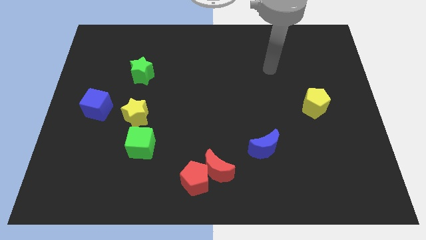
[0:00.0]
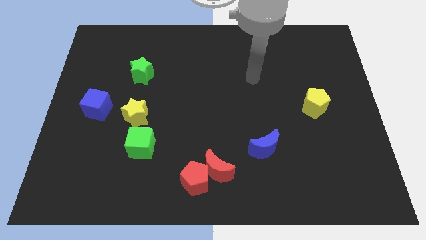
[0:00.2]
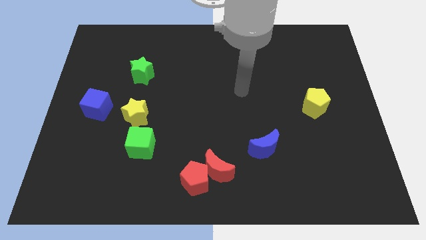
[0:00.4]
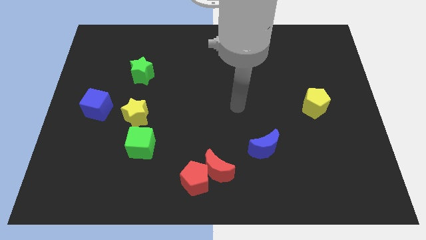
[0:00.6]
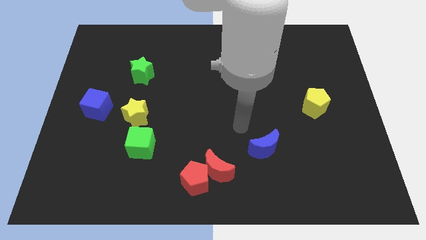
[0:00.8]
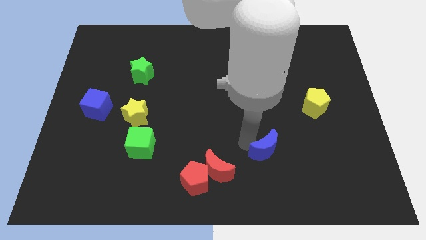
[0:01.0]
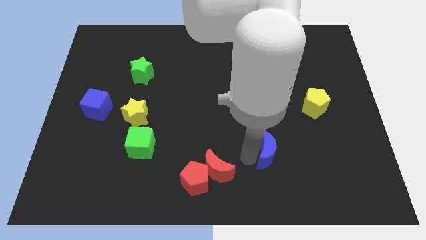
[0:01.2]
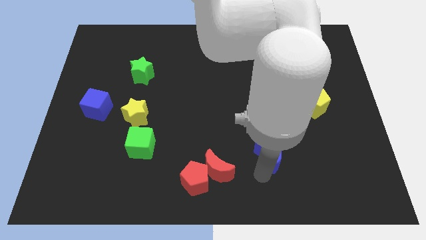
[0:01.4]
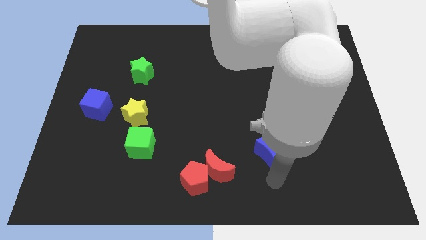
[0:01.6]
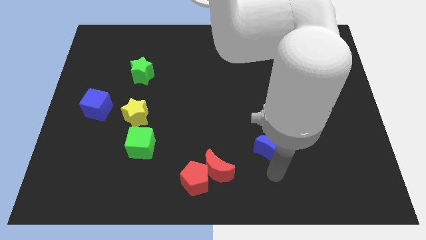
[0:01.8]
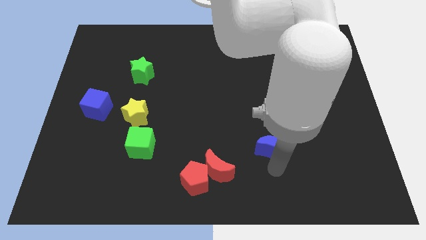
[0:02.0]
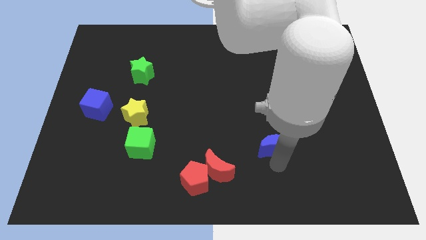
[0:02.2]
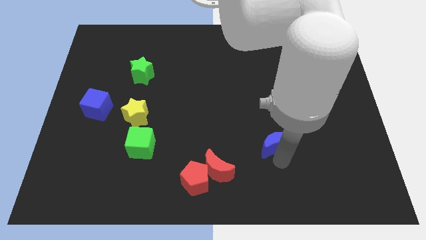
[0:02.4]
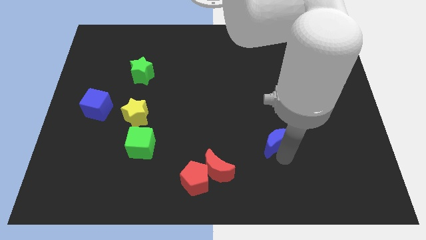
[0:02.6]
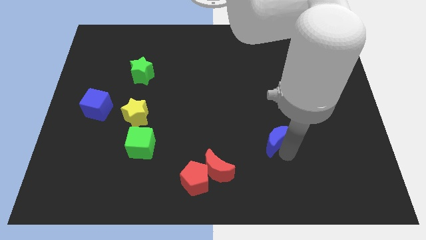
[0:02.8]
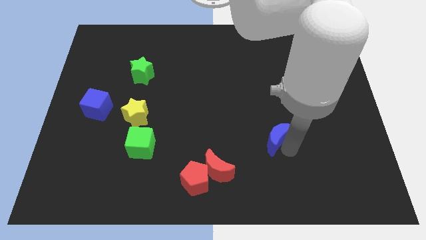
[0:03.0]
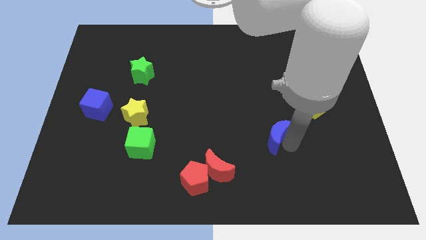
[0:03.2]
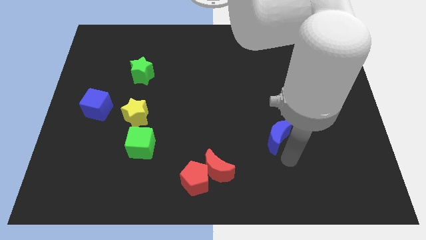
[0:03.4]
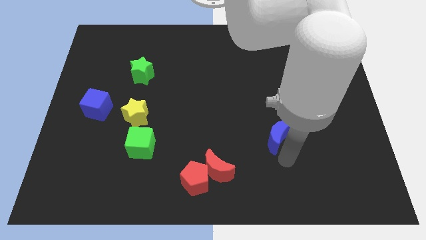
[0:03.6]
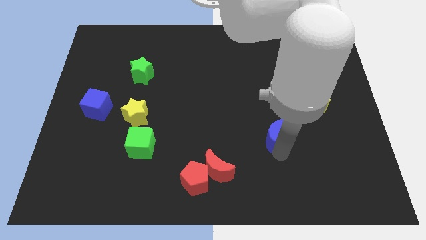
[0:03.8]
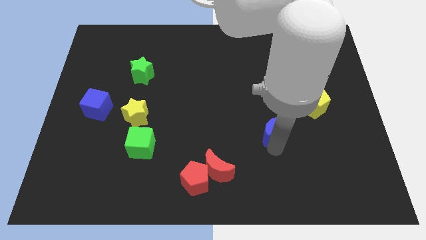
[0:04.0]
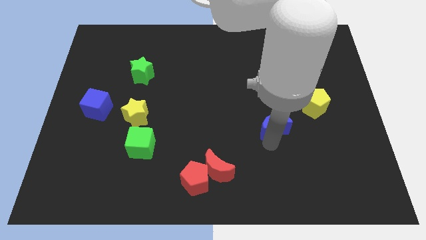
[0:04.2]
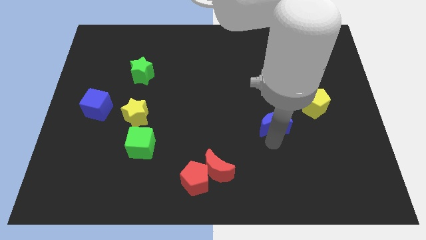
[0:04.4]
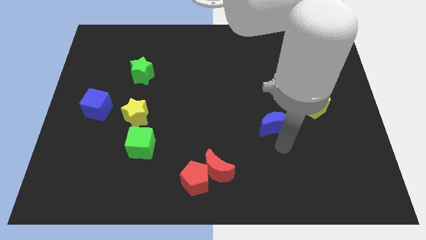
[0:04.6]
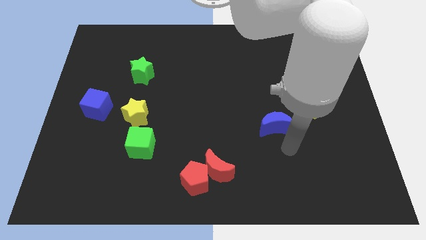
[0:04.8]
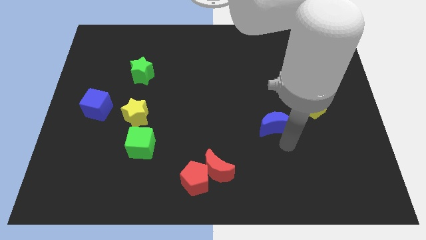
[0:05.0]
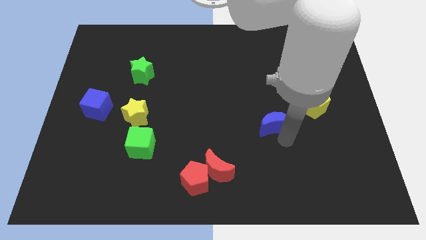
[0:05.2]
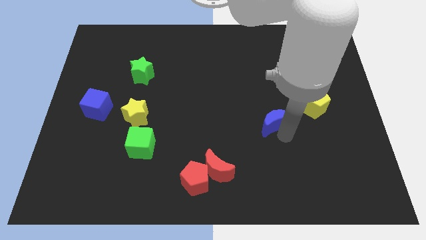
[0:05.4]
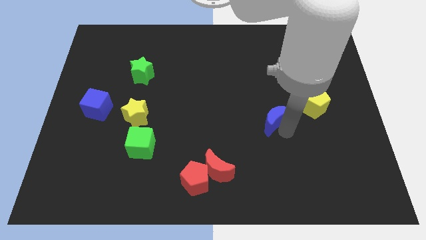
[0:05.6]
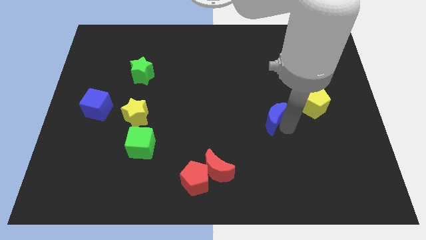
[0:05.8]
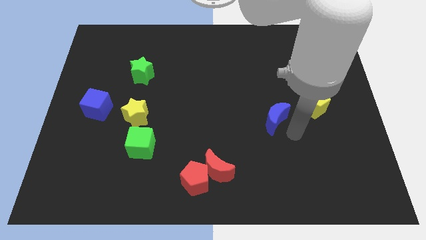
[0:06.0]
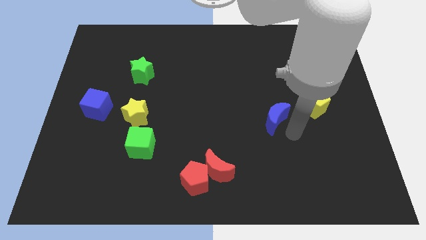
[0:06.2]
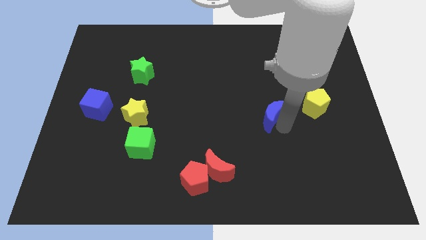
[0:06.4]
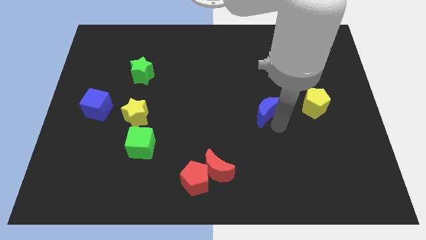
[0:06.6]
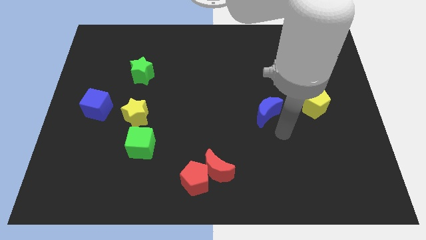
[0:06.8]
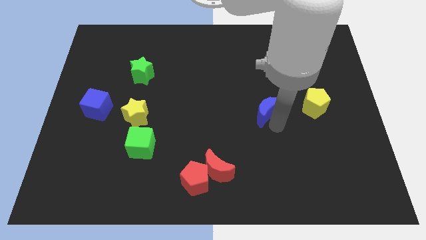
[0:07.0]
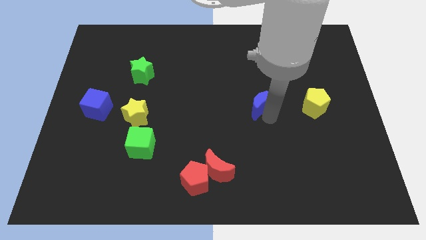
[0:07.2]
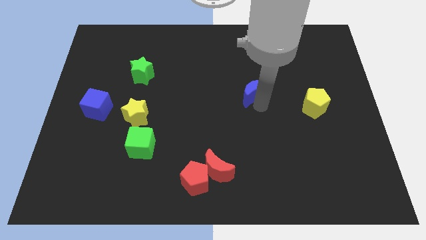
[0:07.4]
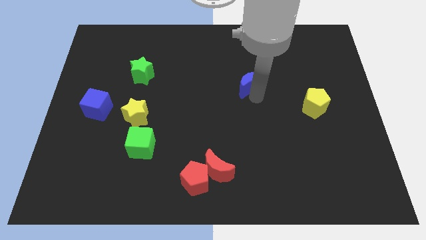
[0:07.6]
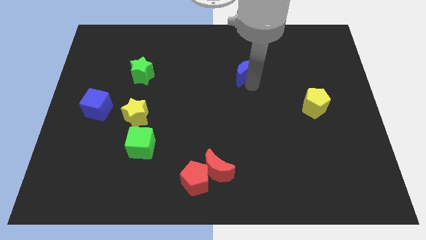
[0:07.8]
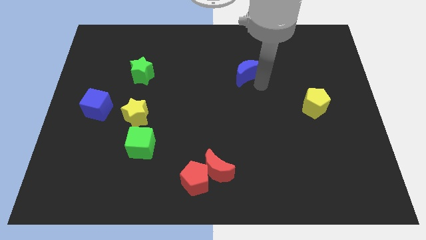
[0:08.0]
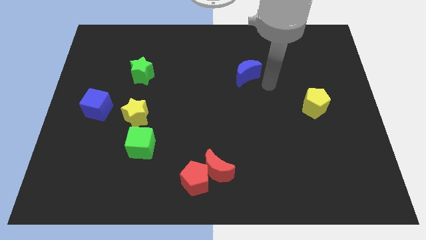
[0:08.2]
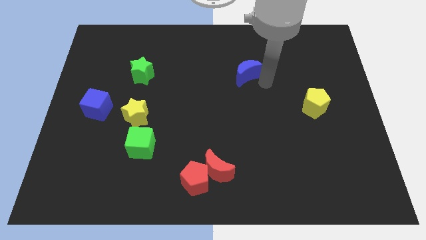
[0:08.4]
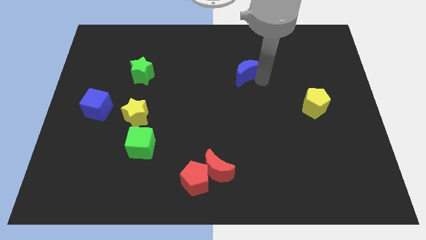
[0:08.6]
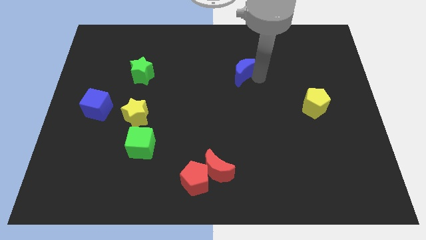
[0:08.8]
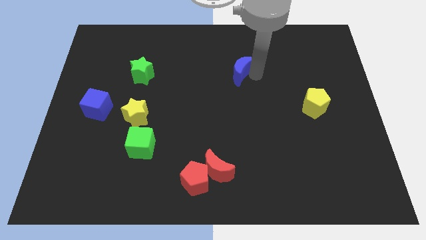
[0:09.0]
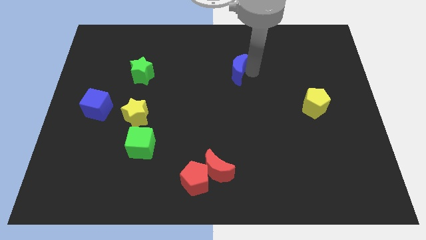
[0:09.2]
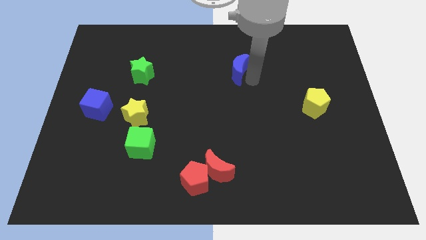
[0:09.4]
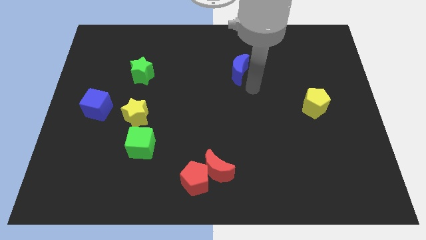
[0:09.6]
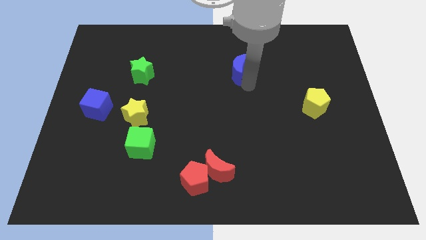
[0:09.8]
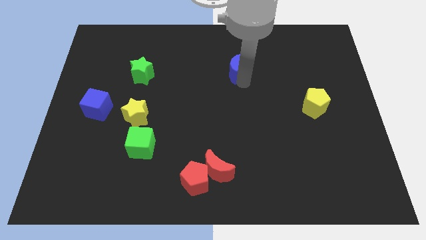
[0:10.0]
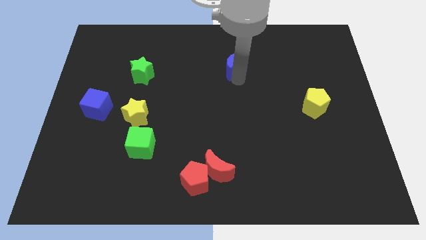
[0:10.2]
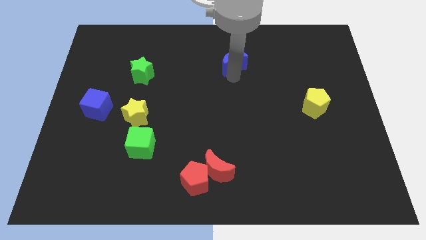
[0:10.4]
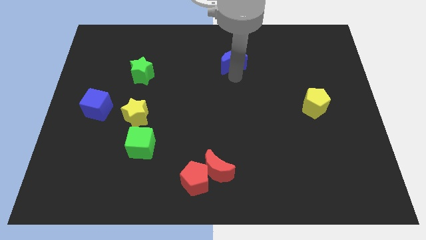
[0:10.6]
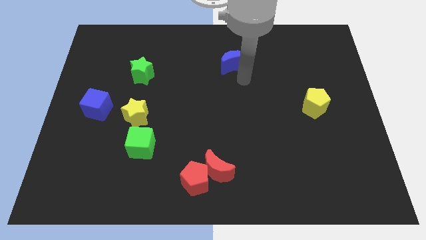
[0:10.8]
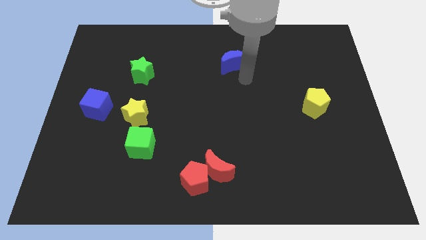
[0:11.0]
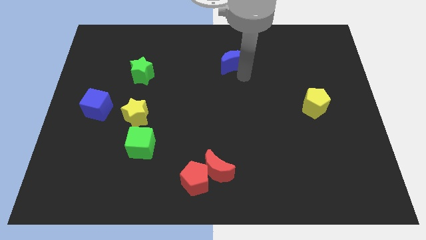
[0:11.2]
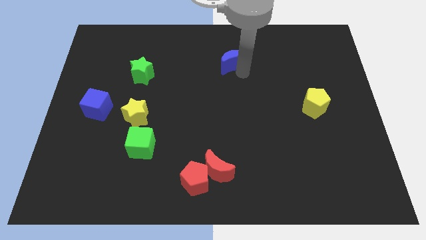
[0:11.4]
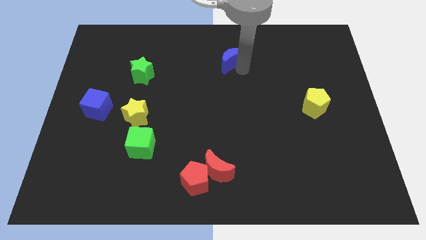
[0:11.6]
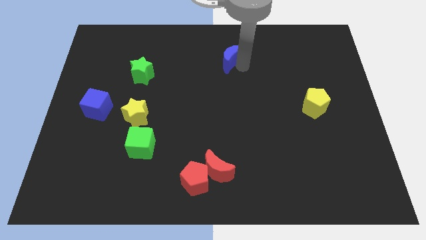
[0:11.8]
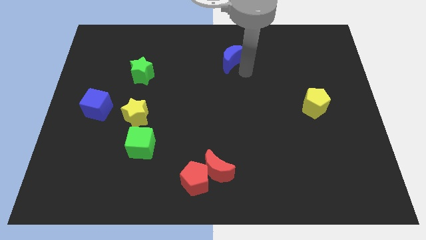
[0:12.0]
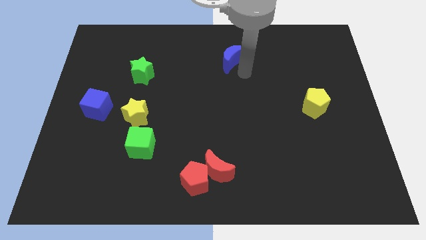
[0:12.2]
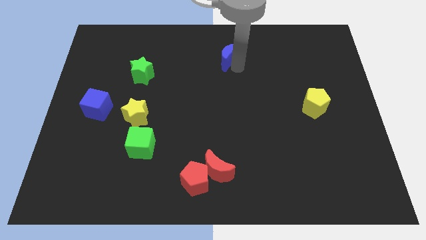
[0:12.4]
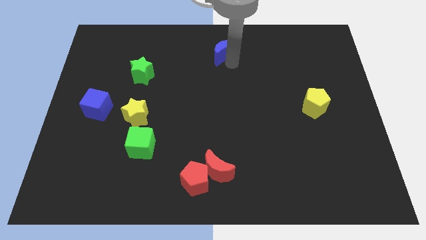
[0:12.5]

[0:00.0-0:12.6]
push the blue moon to the towards your base

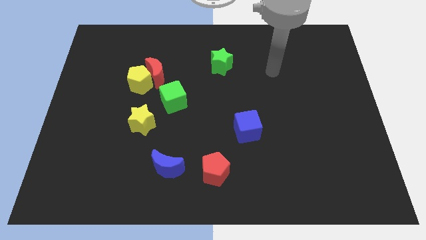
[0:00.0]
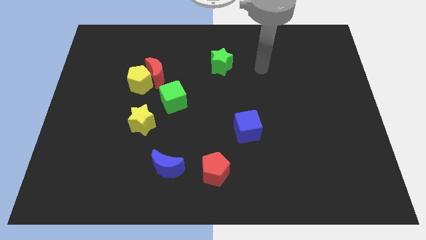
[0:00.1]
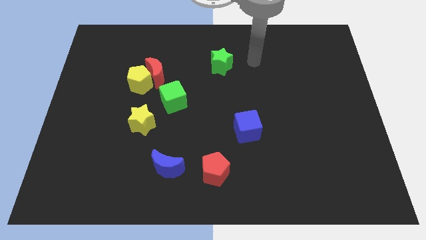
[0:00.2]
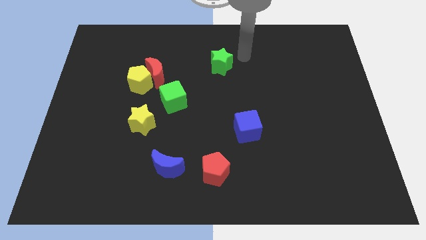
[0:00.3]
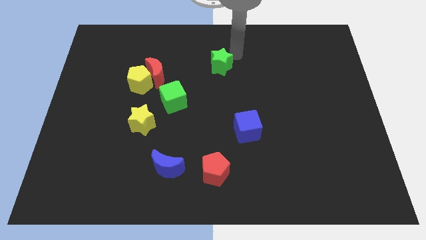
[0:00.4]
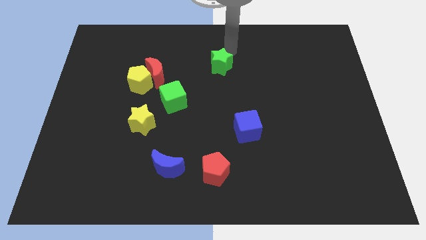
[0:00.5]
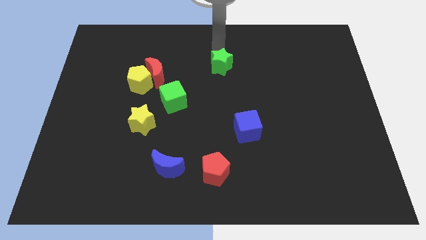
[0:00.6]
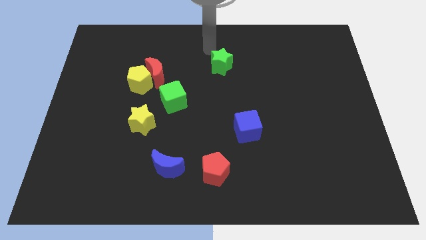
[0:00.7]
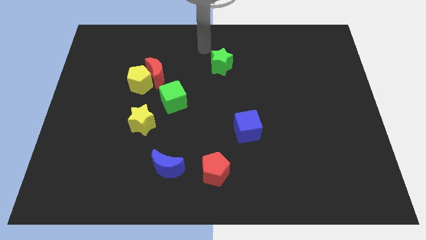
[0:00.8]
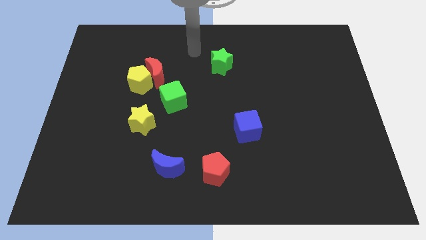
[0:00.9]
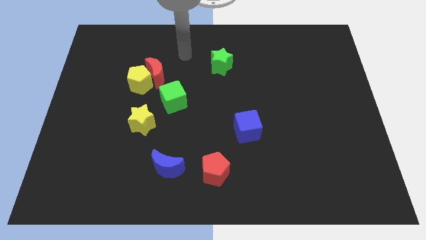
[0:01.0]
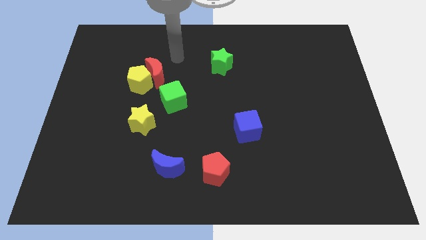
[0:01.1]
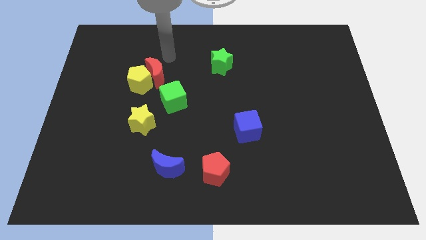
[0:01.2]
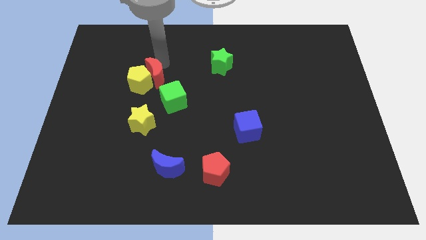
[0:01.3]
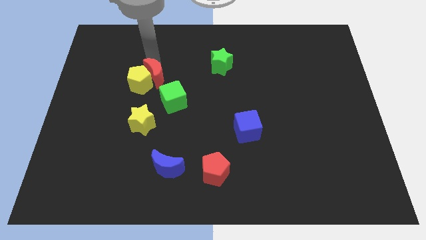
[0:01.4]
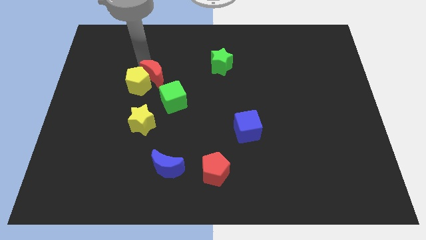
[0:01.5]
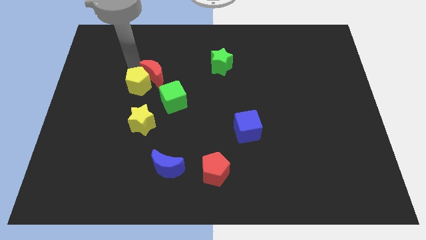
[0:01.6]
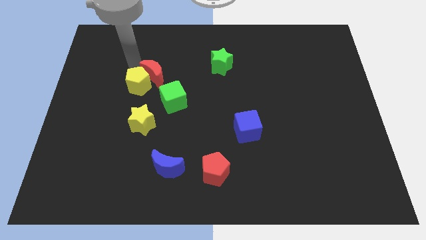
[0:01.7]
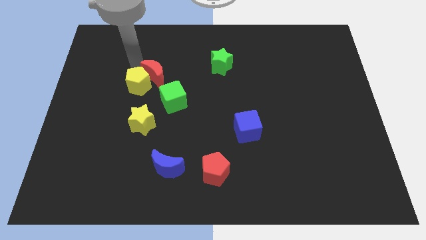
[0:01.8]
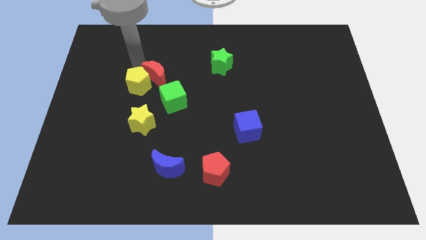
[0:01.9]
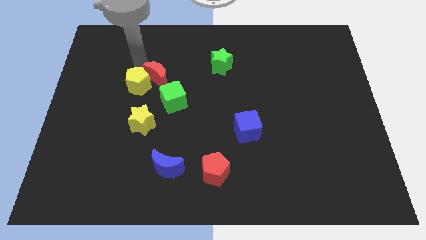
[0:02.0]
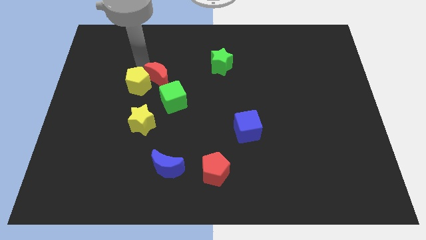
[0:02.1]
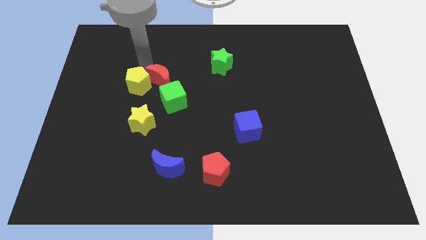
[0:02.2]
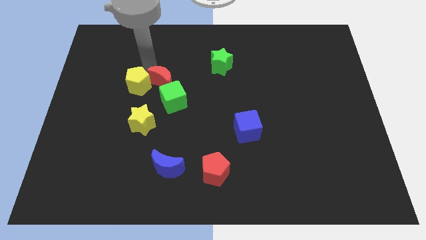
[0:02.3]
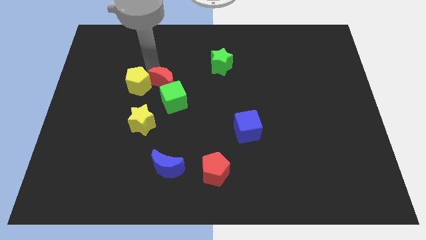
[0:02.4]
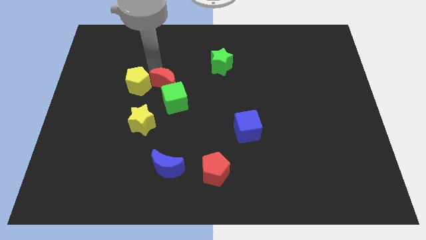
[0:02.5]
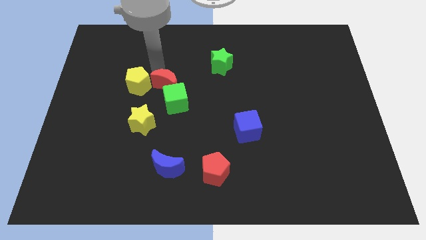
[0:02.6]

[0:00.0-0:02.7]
push the red moon to the center of the board
